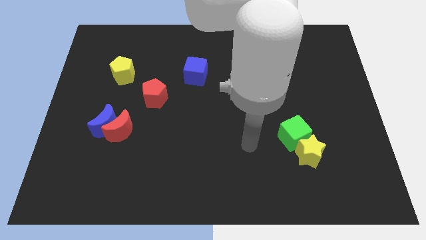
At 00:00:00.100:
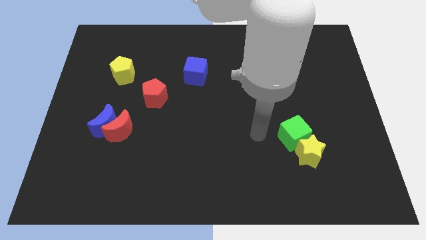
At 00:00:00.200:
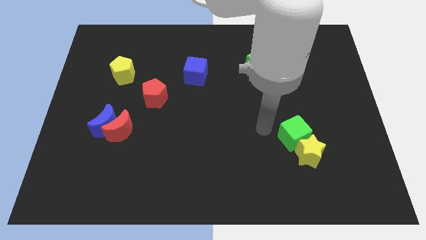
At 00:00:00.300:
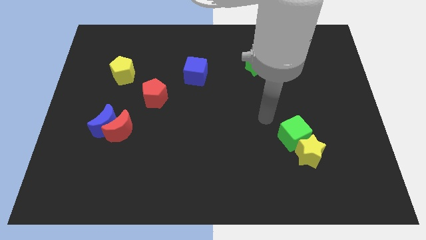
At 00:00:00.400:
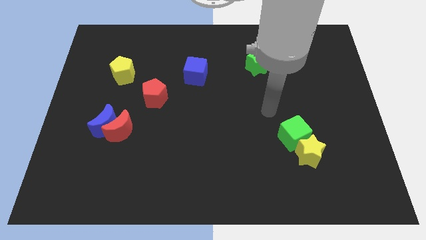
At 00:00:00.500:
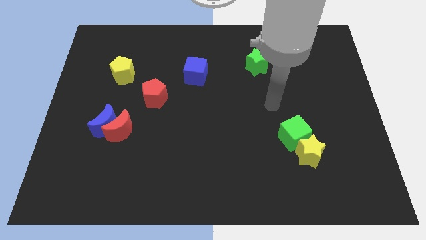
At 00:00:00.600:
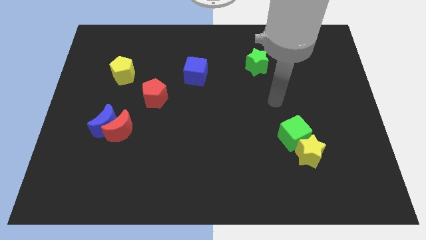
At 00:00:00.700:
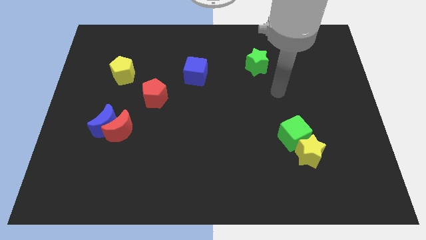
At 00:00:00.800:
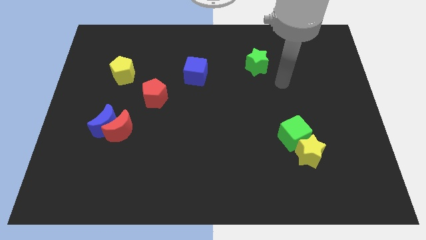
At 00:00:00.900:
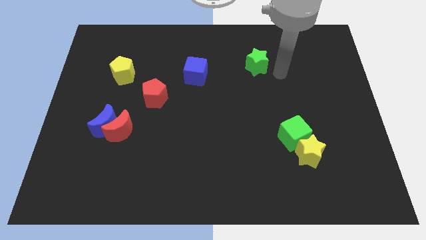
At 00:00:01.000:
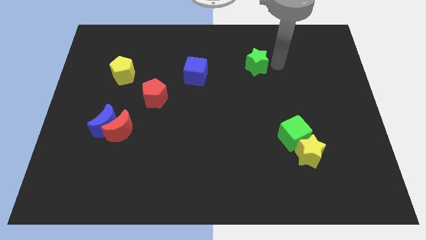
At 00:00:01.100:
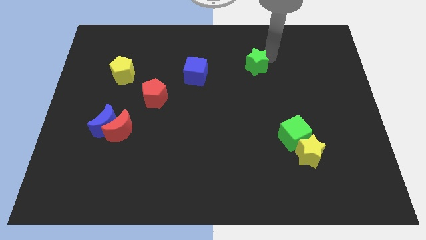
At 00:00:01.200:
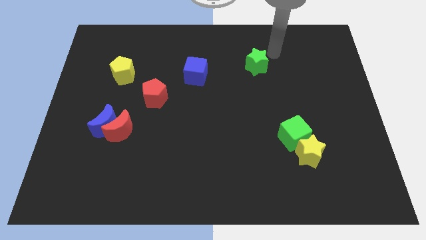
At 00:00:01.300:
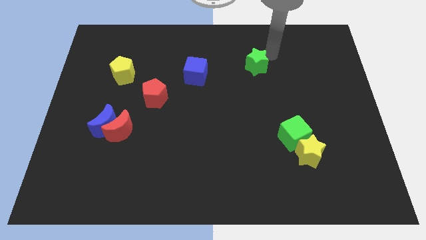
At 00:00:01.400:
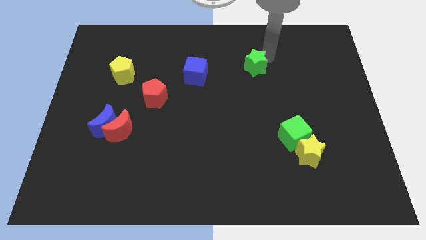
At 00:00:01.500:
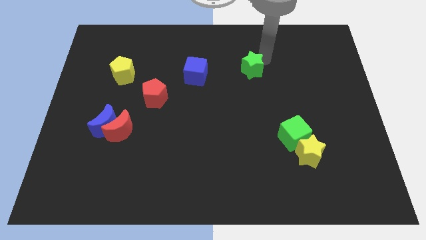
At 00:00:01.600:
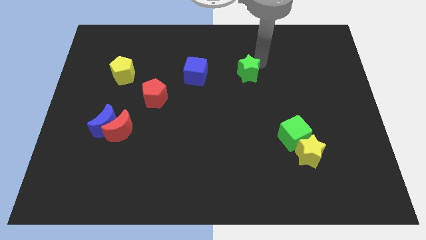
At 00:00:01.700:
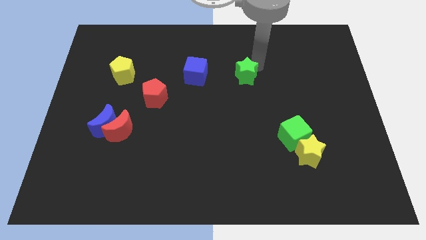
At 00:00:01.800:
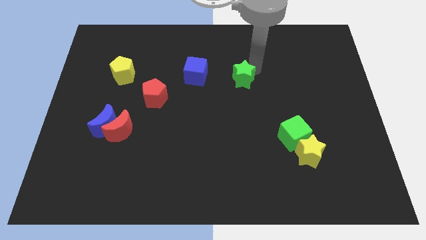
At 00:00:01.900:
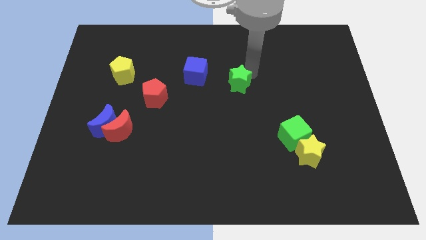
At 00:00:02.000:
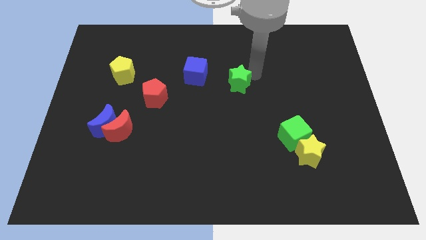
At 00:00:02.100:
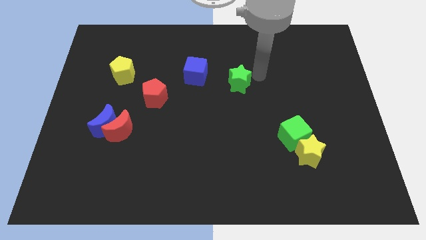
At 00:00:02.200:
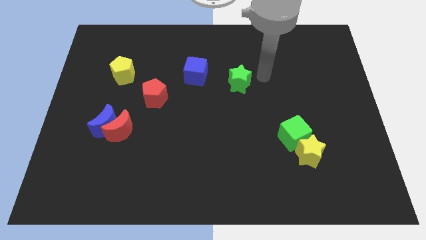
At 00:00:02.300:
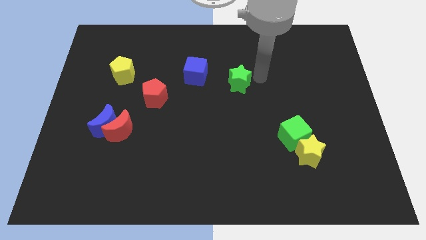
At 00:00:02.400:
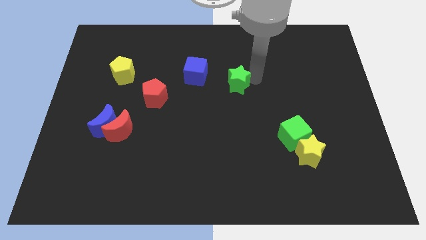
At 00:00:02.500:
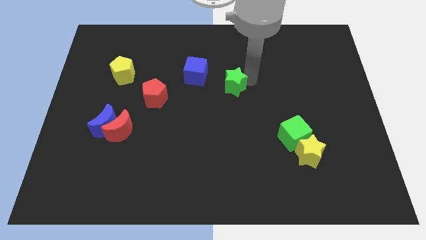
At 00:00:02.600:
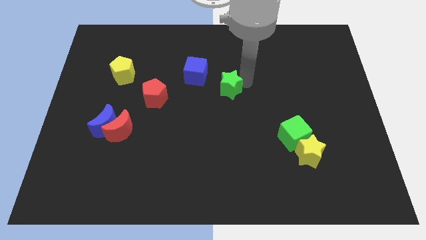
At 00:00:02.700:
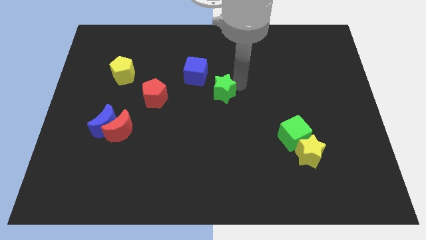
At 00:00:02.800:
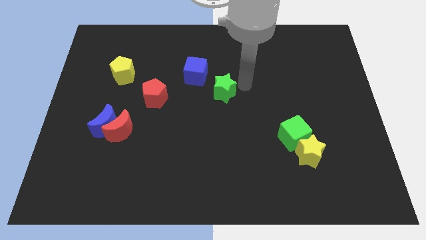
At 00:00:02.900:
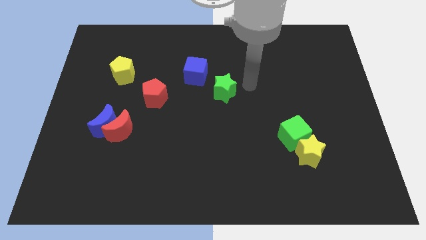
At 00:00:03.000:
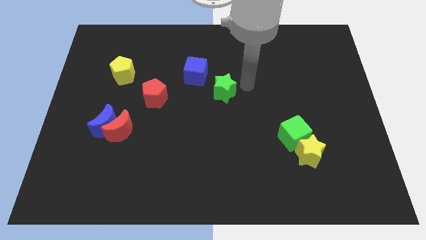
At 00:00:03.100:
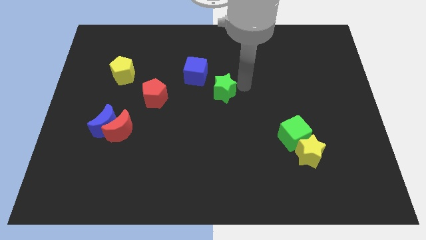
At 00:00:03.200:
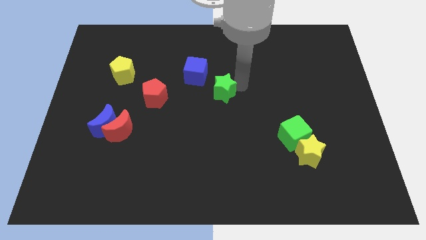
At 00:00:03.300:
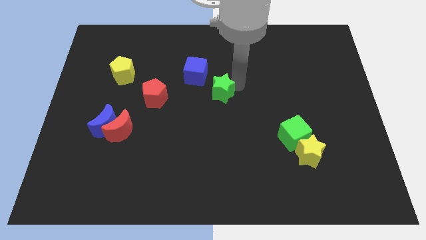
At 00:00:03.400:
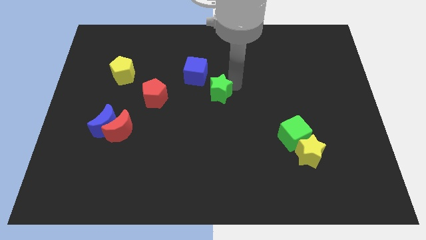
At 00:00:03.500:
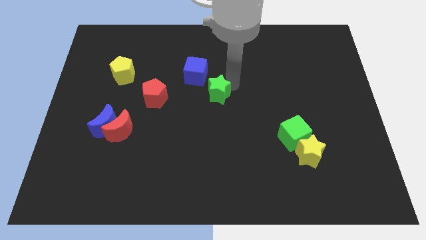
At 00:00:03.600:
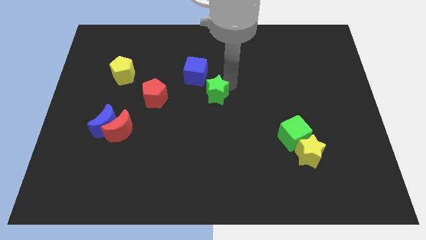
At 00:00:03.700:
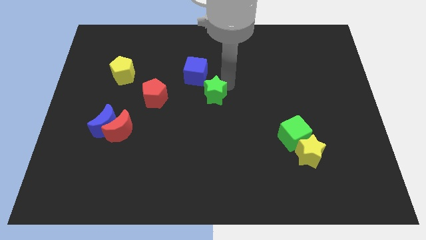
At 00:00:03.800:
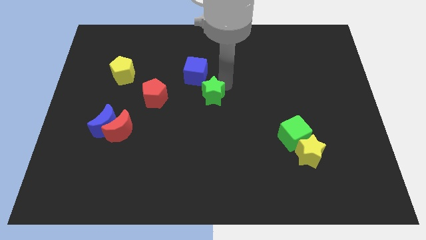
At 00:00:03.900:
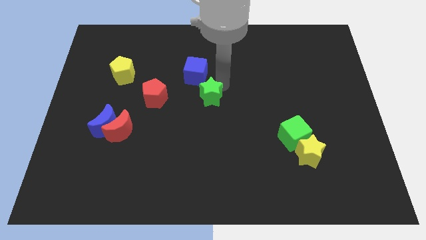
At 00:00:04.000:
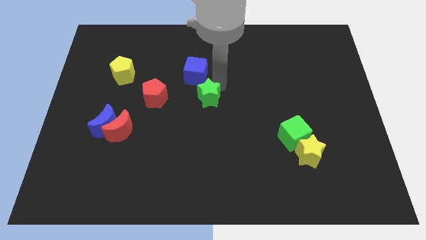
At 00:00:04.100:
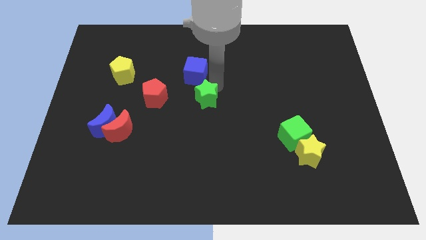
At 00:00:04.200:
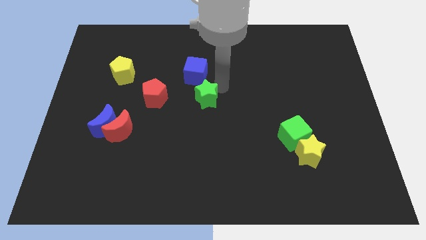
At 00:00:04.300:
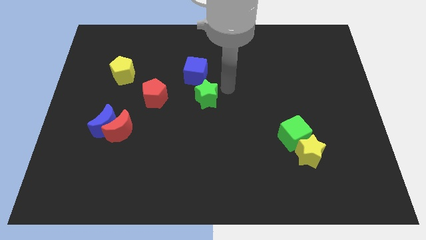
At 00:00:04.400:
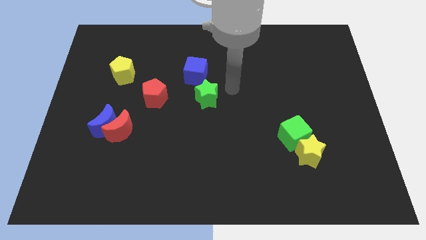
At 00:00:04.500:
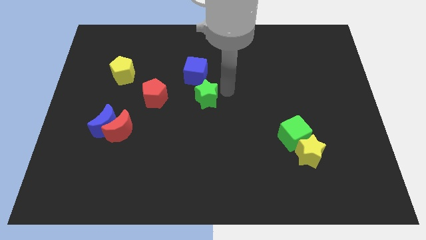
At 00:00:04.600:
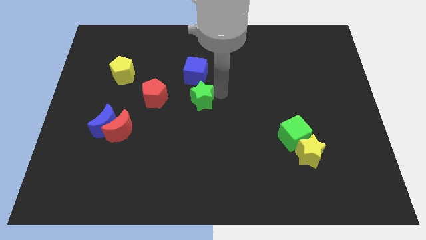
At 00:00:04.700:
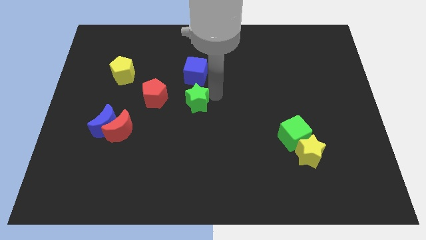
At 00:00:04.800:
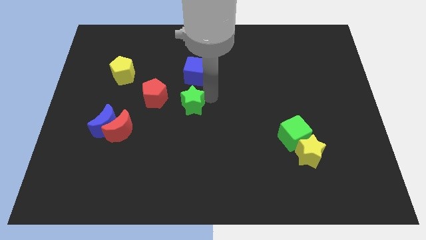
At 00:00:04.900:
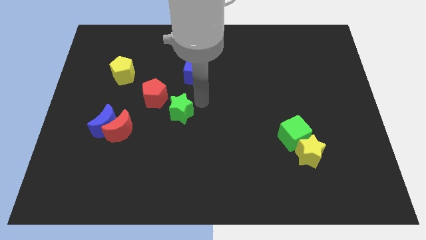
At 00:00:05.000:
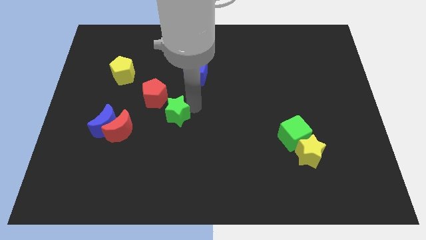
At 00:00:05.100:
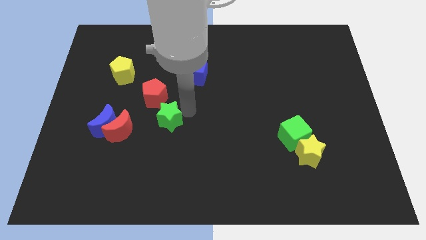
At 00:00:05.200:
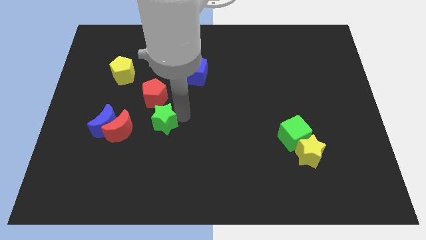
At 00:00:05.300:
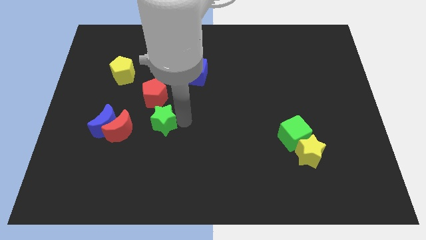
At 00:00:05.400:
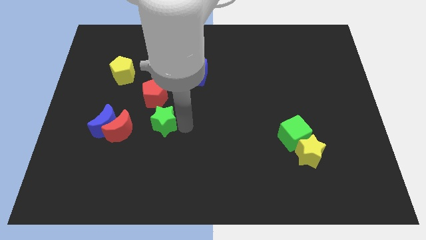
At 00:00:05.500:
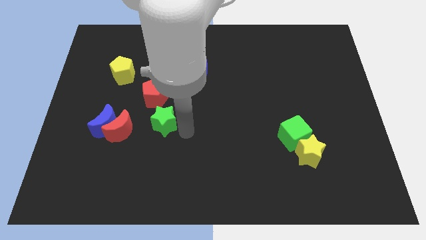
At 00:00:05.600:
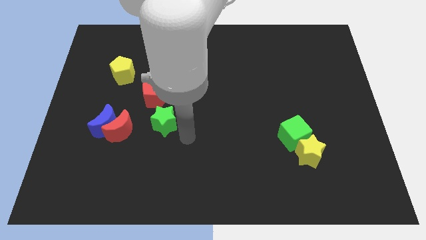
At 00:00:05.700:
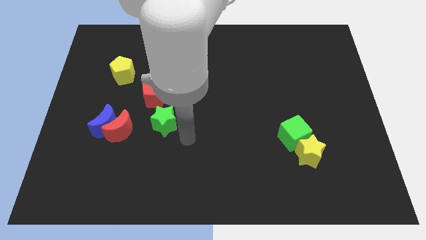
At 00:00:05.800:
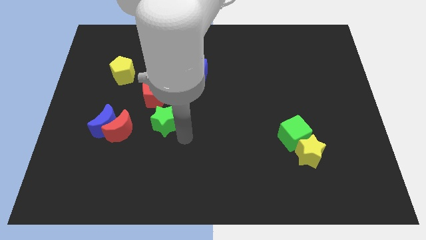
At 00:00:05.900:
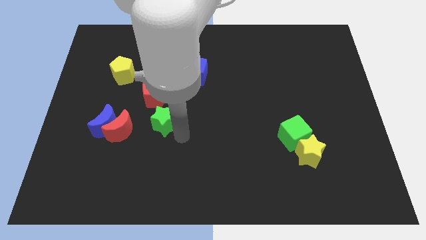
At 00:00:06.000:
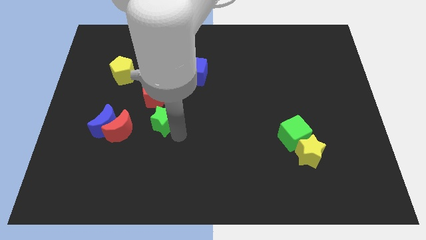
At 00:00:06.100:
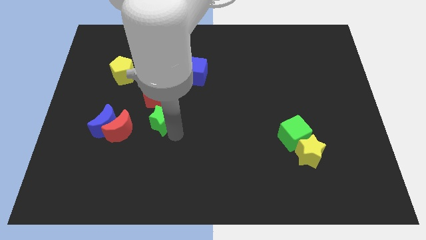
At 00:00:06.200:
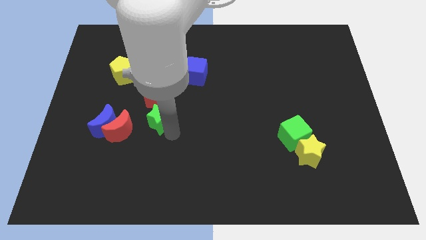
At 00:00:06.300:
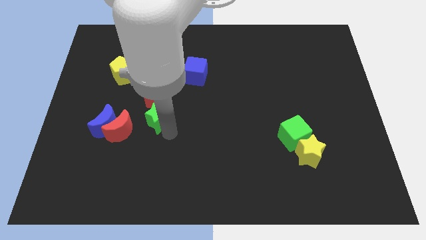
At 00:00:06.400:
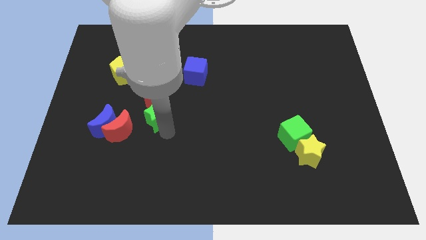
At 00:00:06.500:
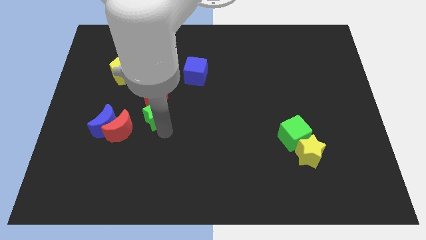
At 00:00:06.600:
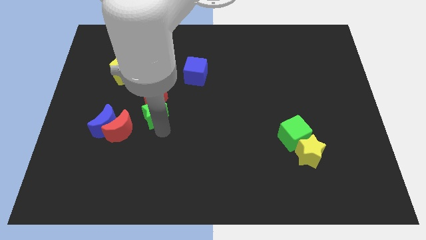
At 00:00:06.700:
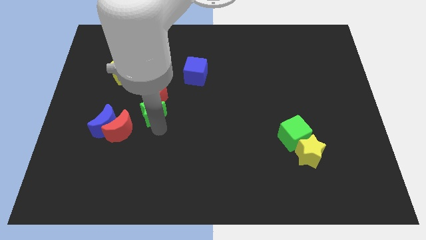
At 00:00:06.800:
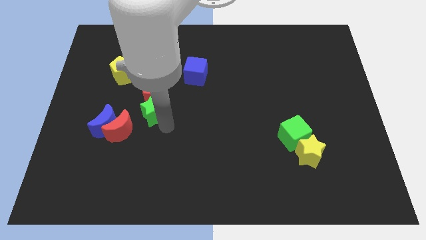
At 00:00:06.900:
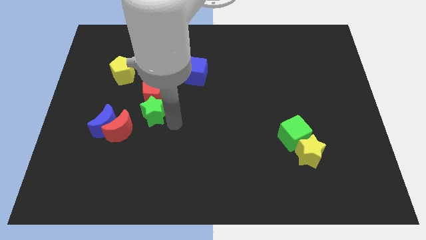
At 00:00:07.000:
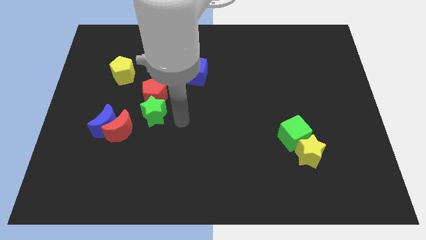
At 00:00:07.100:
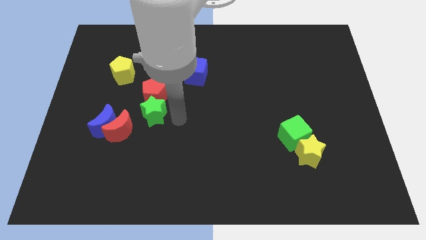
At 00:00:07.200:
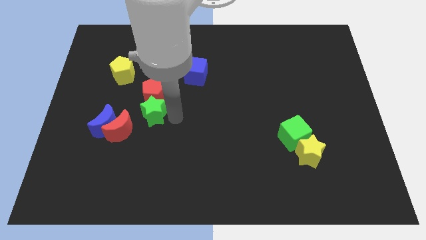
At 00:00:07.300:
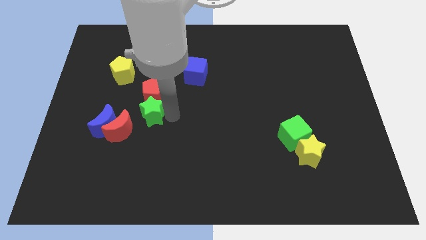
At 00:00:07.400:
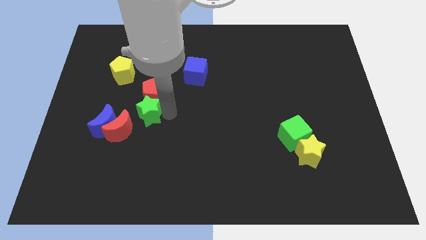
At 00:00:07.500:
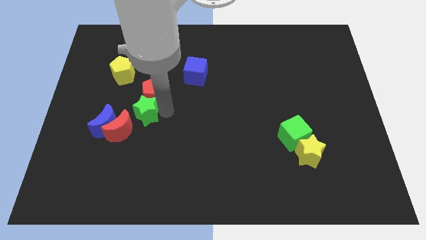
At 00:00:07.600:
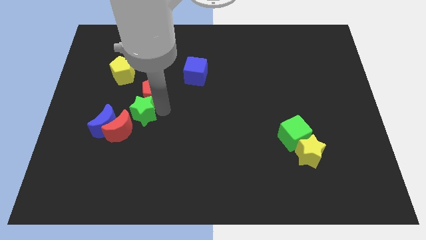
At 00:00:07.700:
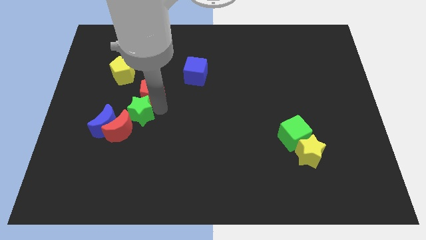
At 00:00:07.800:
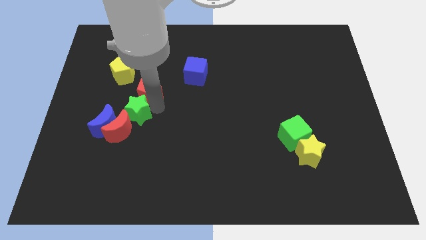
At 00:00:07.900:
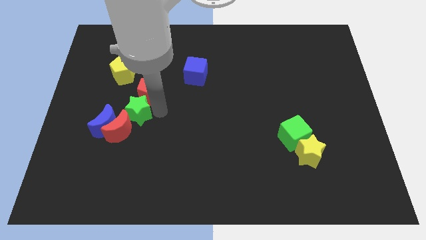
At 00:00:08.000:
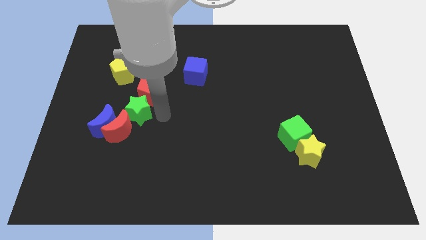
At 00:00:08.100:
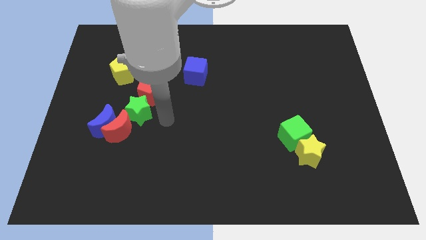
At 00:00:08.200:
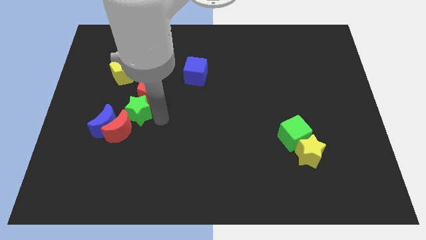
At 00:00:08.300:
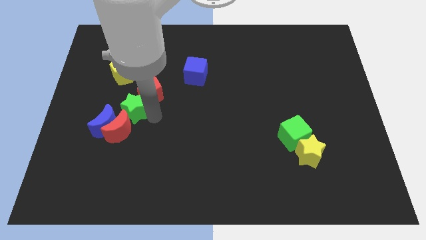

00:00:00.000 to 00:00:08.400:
slide the green star to the bottom of the yellow pentagon

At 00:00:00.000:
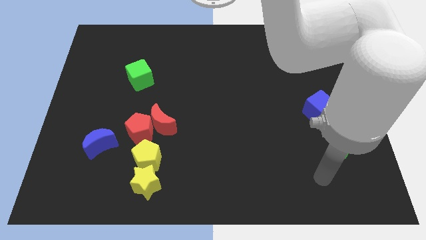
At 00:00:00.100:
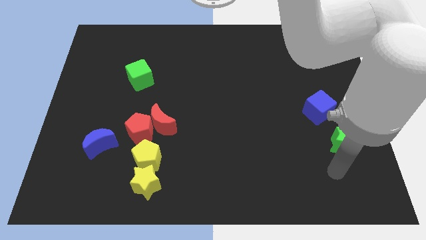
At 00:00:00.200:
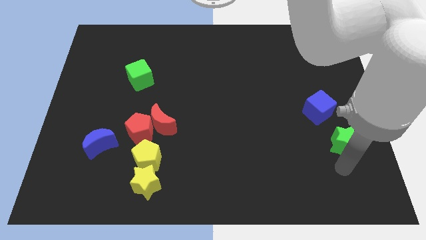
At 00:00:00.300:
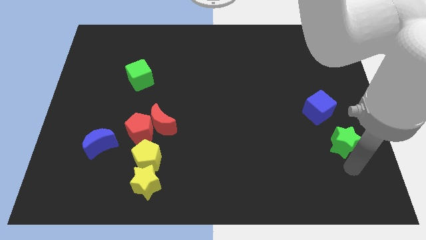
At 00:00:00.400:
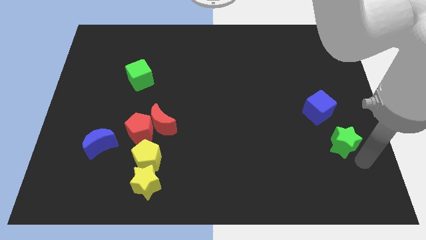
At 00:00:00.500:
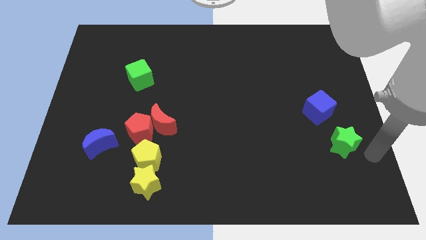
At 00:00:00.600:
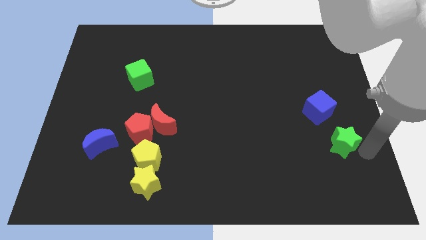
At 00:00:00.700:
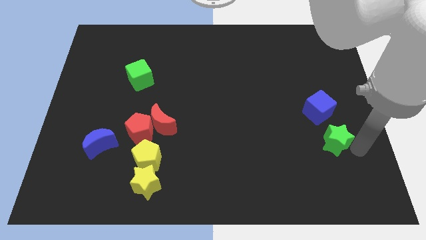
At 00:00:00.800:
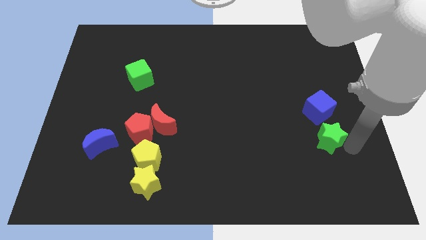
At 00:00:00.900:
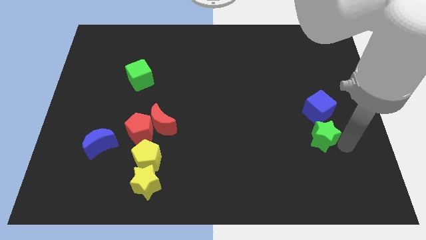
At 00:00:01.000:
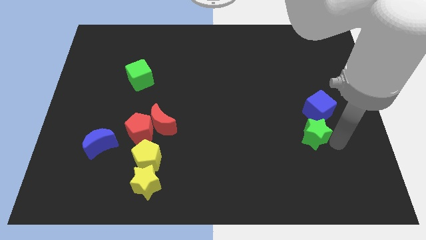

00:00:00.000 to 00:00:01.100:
push the green star to the bottom left side of the blue cube
